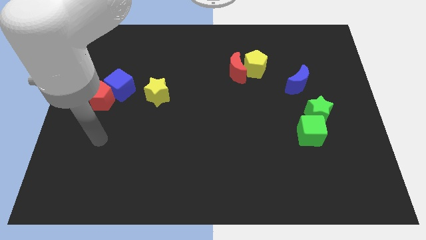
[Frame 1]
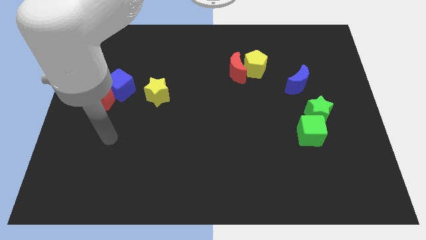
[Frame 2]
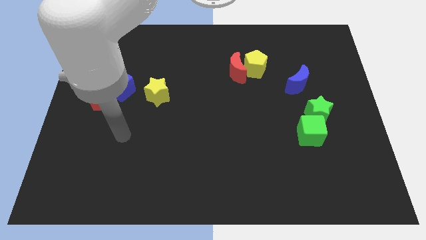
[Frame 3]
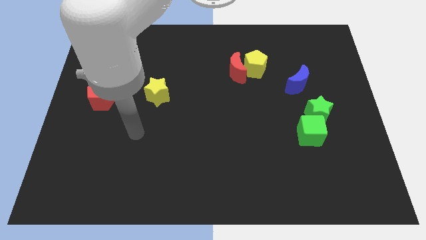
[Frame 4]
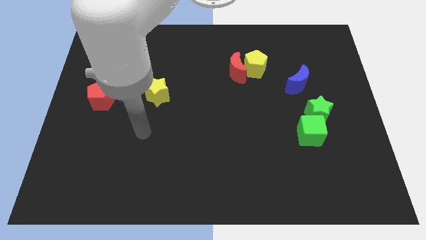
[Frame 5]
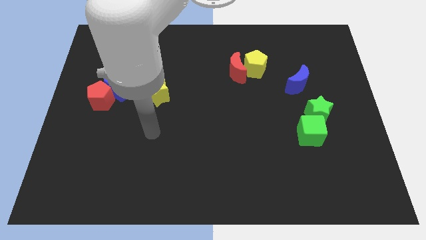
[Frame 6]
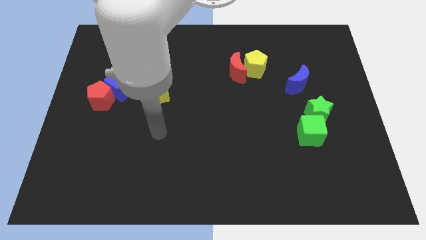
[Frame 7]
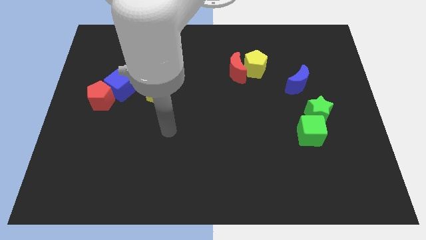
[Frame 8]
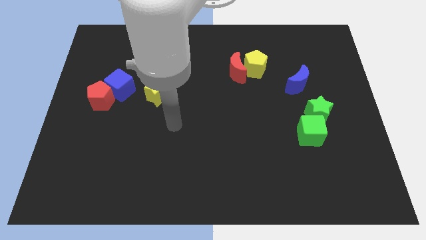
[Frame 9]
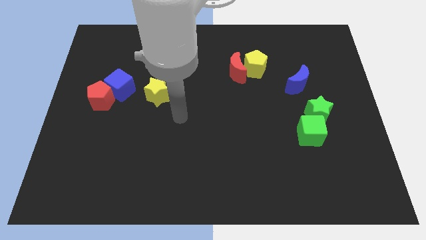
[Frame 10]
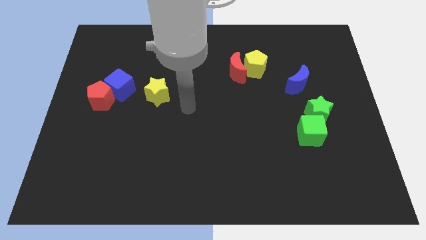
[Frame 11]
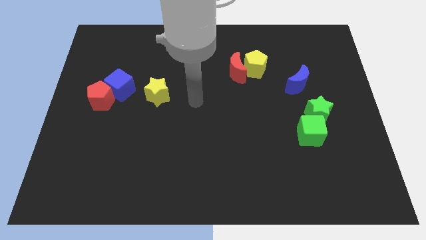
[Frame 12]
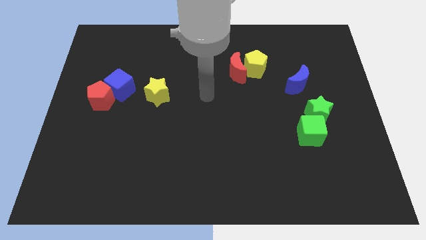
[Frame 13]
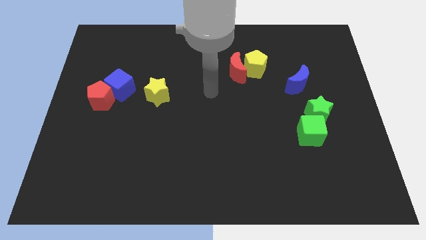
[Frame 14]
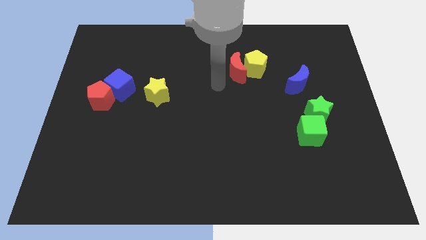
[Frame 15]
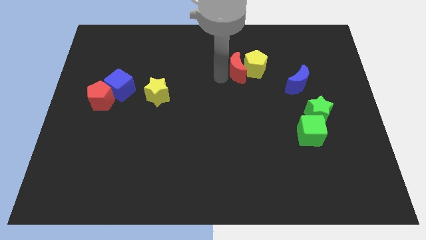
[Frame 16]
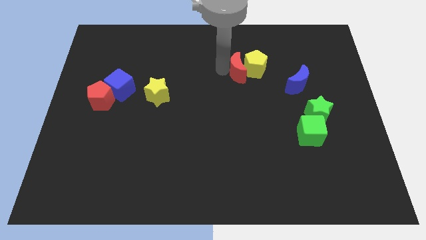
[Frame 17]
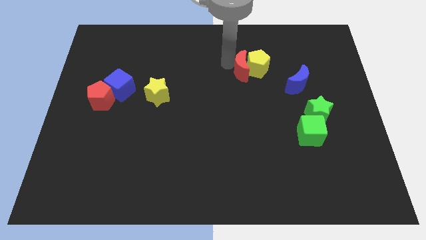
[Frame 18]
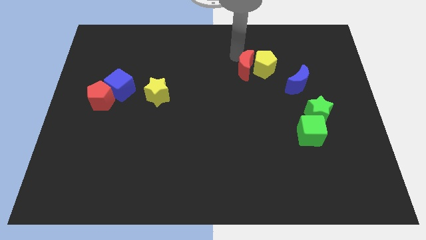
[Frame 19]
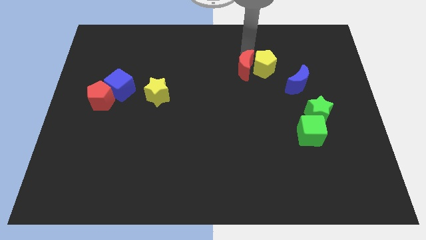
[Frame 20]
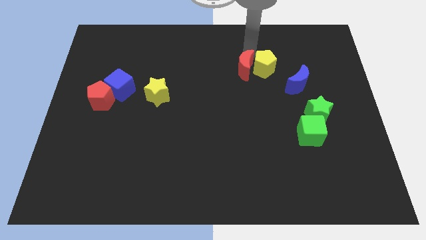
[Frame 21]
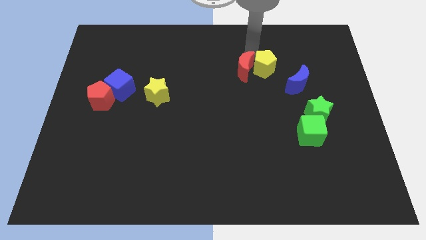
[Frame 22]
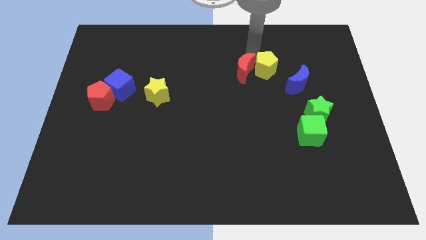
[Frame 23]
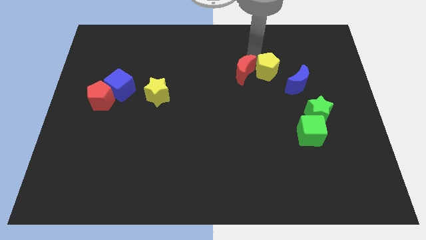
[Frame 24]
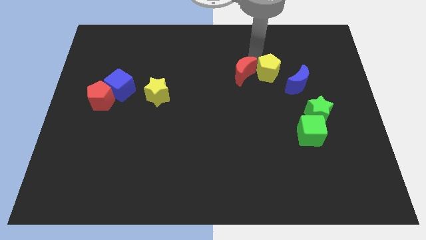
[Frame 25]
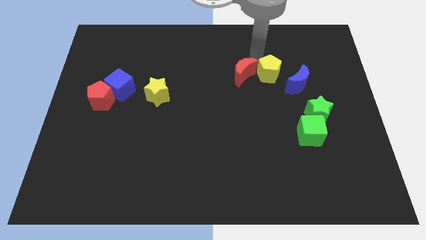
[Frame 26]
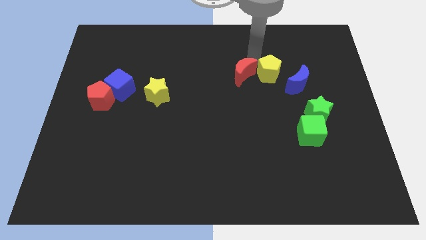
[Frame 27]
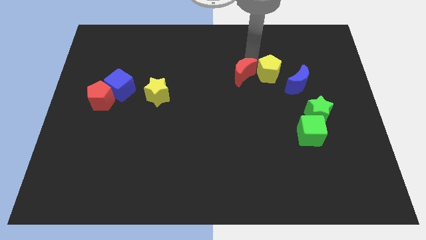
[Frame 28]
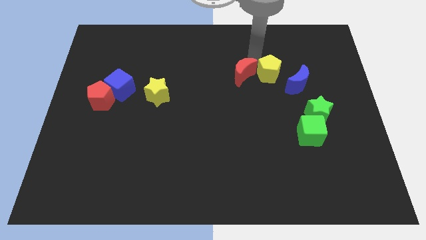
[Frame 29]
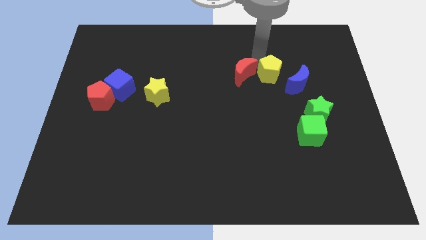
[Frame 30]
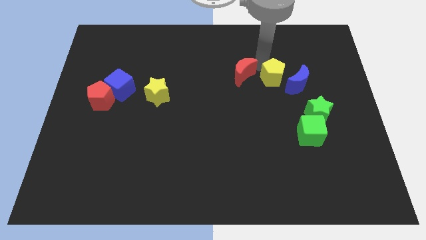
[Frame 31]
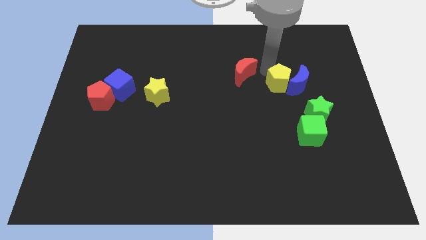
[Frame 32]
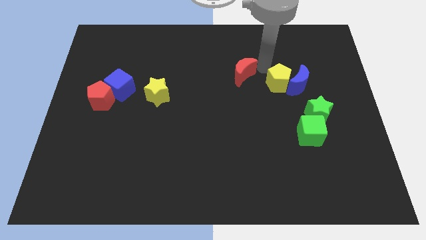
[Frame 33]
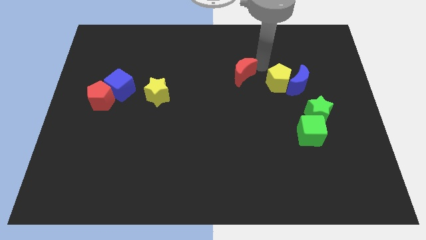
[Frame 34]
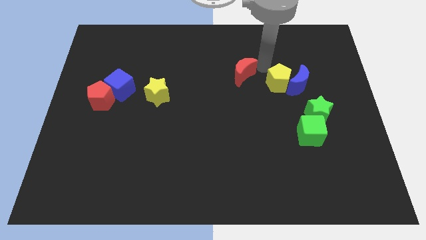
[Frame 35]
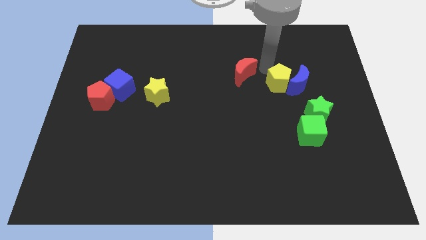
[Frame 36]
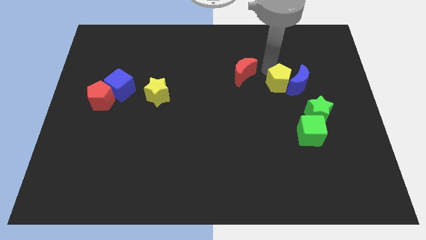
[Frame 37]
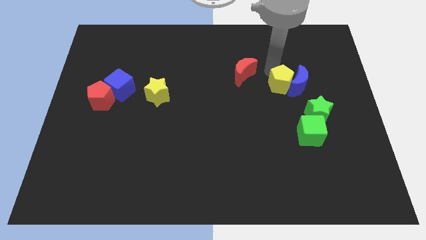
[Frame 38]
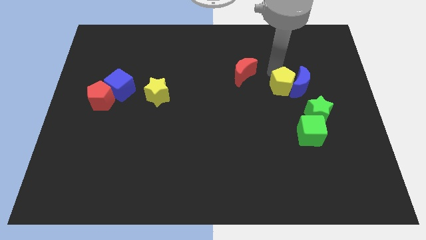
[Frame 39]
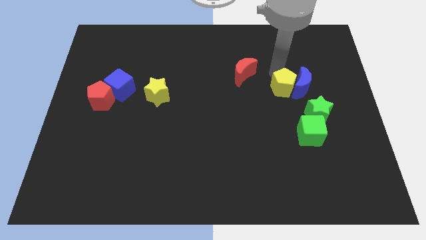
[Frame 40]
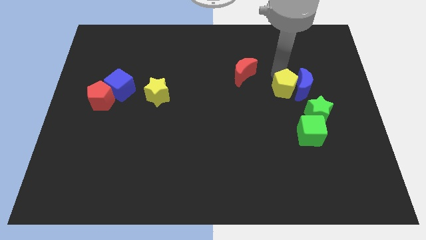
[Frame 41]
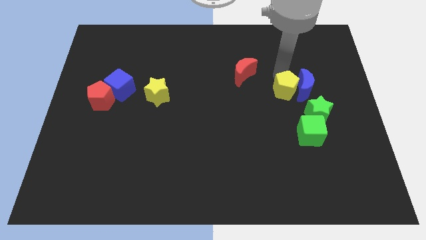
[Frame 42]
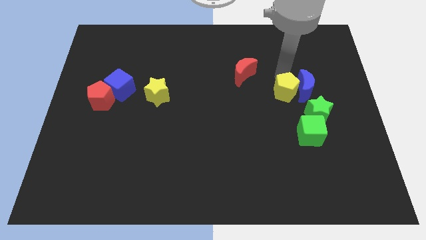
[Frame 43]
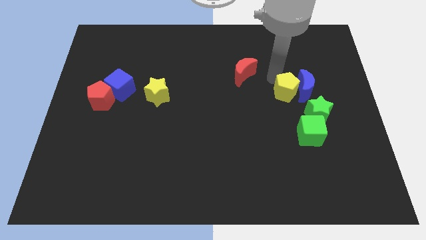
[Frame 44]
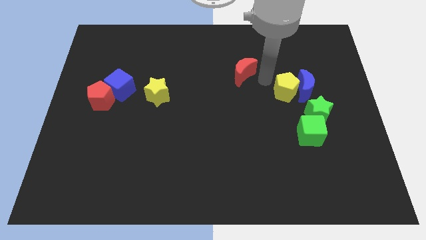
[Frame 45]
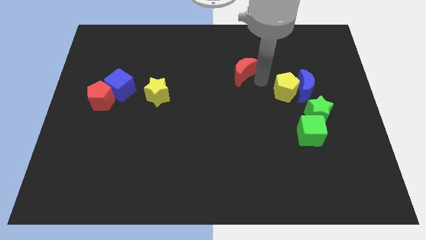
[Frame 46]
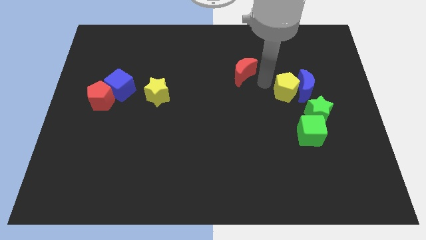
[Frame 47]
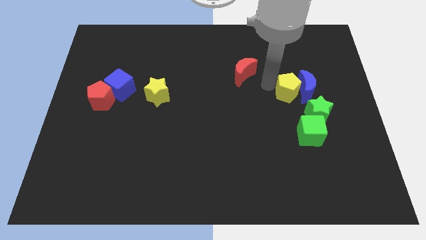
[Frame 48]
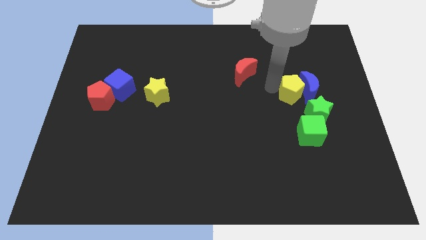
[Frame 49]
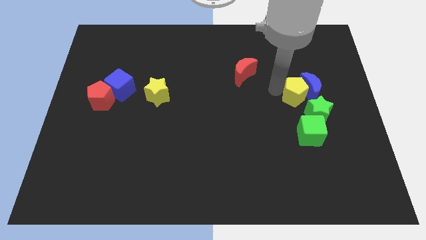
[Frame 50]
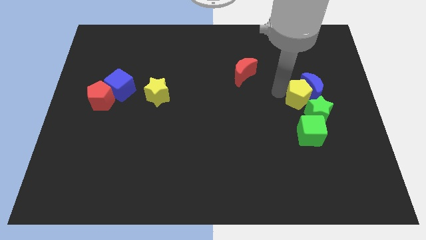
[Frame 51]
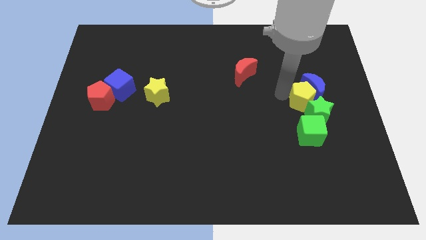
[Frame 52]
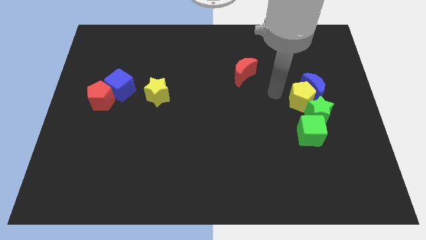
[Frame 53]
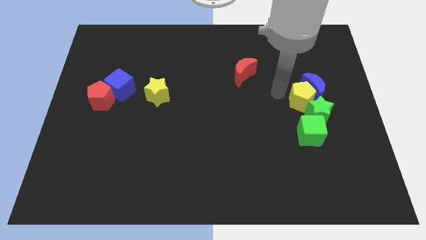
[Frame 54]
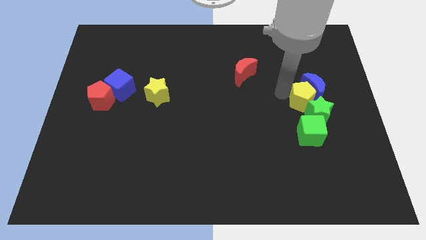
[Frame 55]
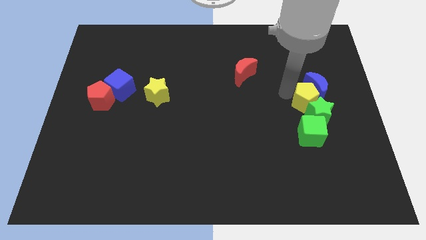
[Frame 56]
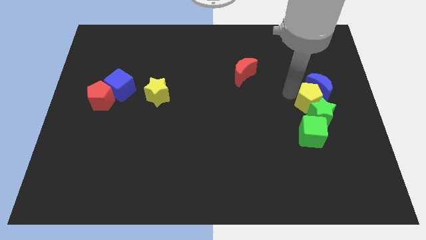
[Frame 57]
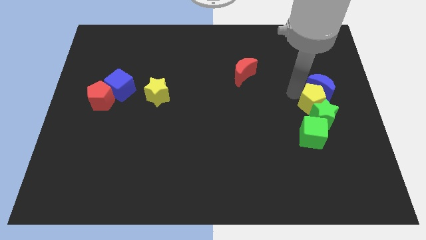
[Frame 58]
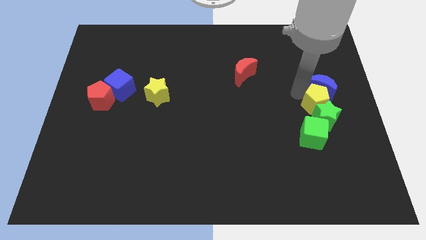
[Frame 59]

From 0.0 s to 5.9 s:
put the yellow pentagon to the bottom right of the blue moon

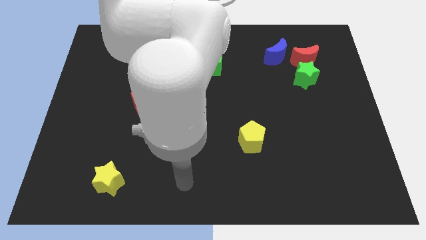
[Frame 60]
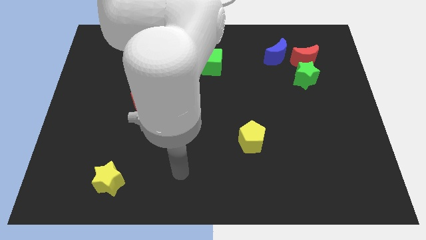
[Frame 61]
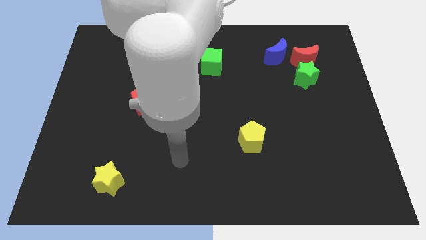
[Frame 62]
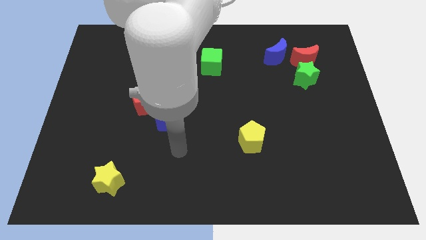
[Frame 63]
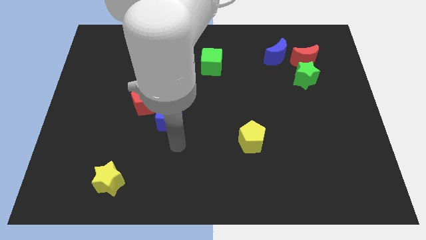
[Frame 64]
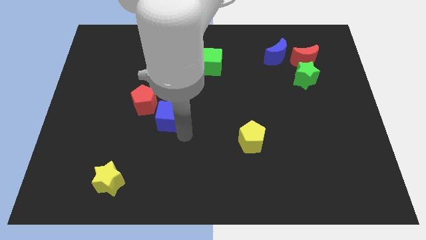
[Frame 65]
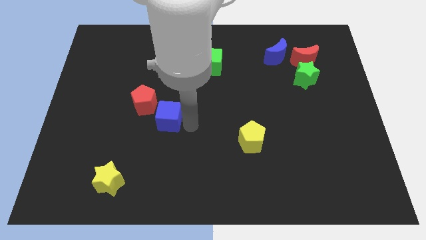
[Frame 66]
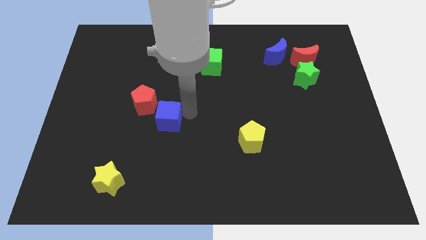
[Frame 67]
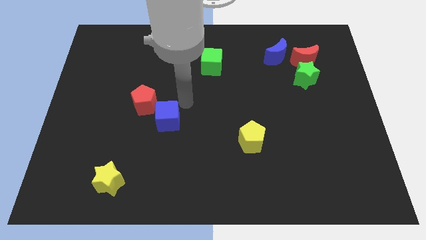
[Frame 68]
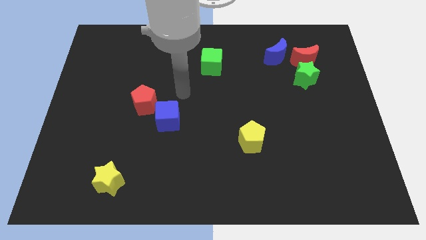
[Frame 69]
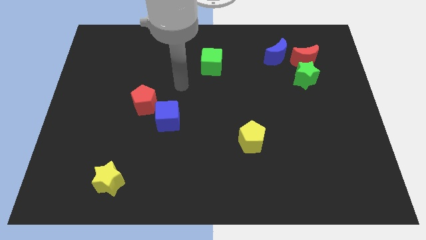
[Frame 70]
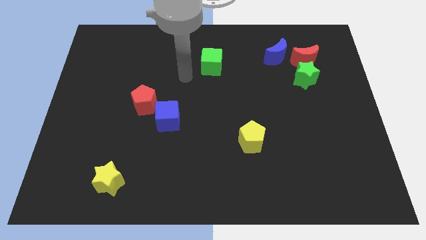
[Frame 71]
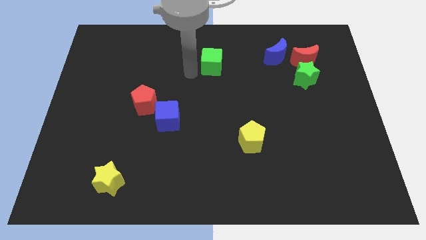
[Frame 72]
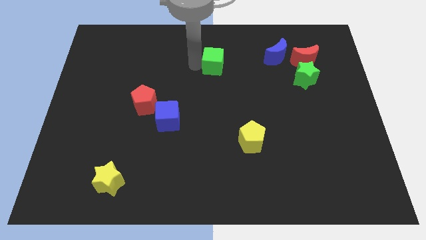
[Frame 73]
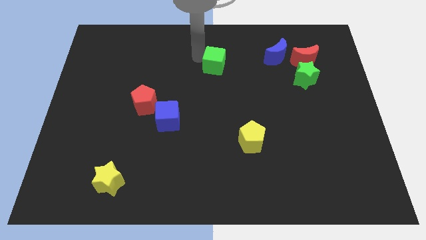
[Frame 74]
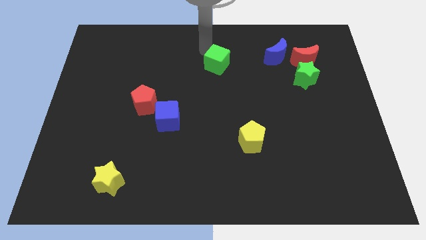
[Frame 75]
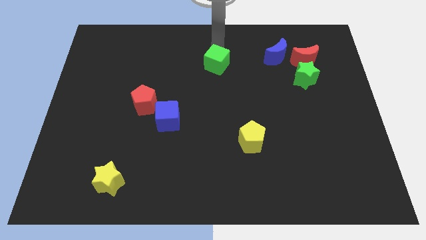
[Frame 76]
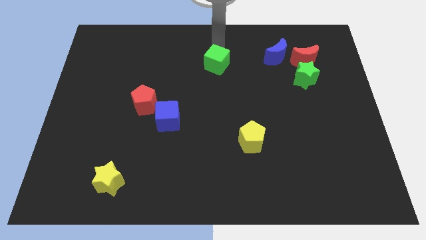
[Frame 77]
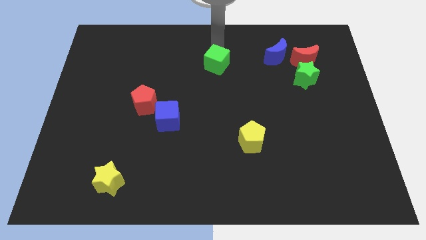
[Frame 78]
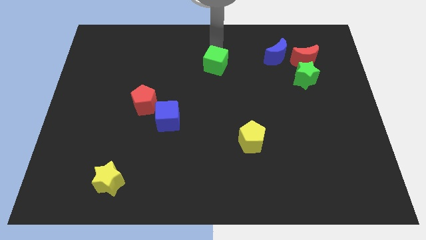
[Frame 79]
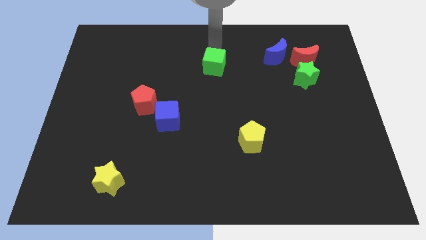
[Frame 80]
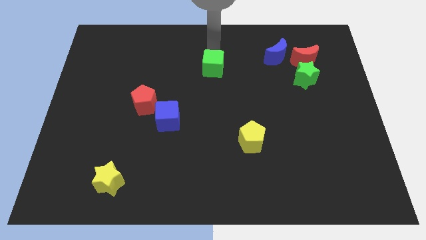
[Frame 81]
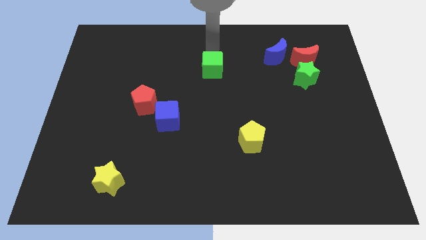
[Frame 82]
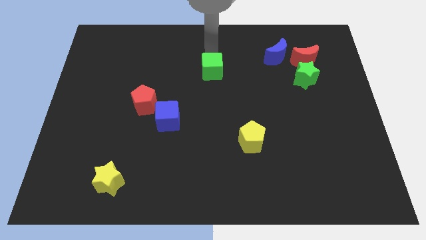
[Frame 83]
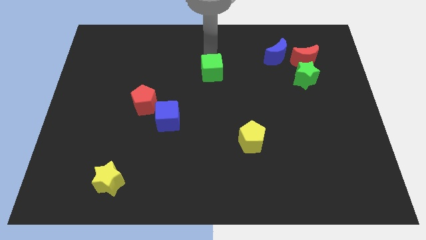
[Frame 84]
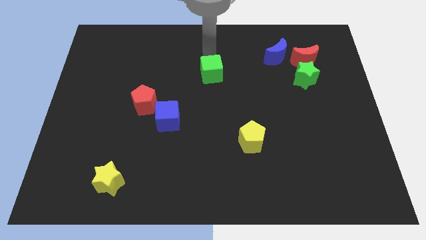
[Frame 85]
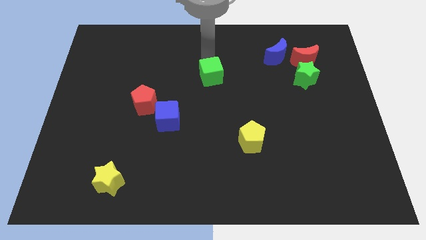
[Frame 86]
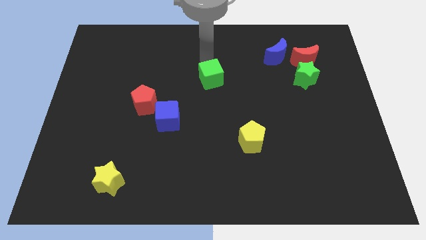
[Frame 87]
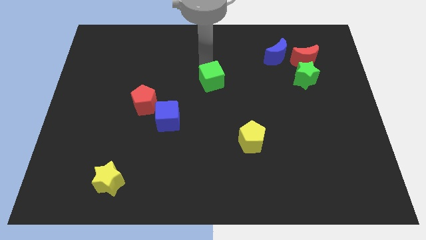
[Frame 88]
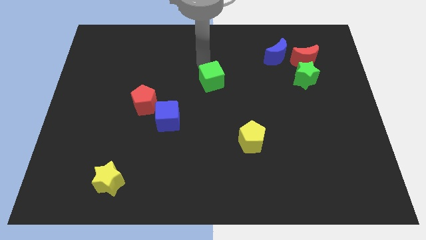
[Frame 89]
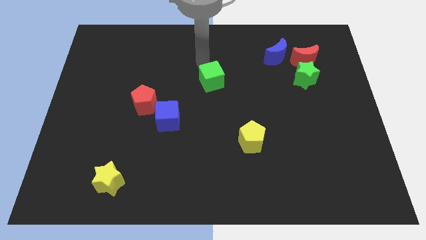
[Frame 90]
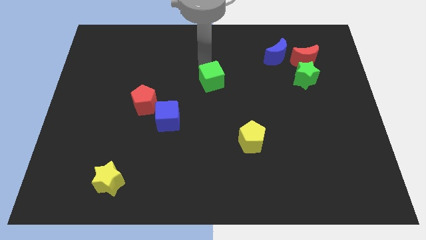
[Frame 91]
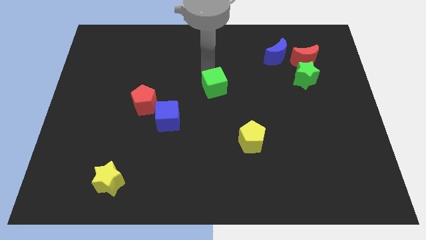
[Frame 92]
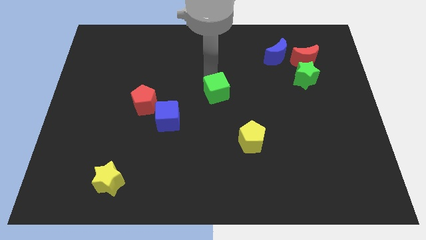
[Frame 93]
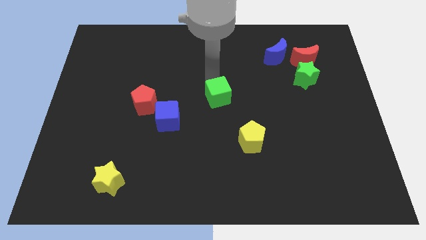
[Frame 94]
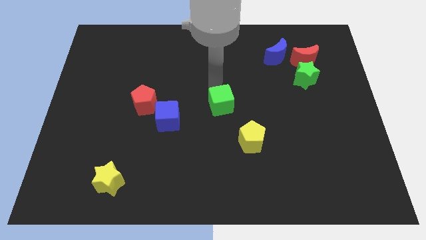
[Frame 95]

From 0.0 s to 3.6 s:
slide the green cube to the top left of the yellow pentagon
